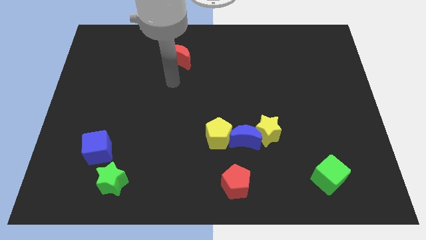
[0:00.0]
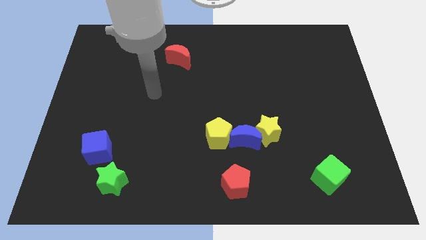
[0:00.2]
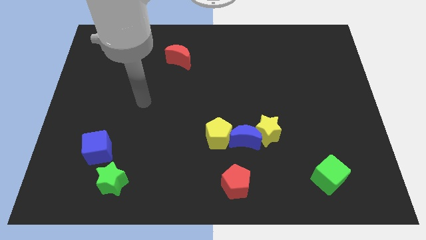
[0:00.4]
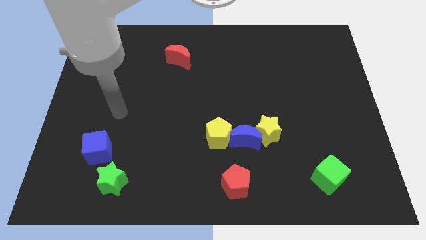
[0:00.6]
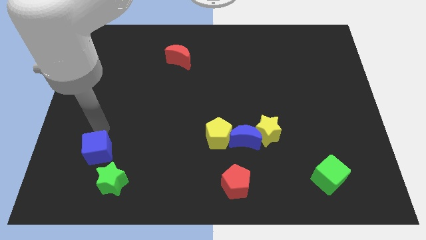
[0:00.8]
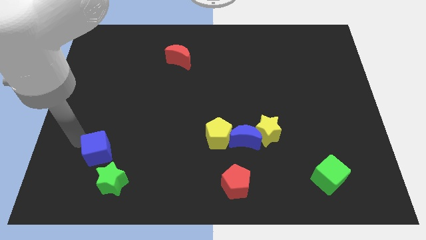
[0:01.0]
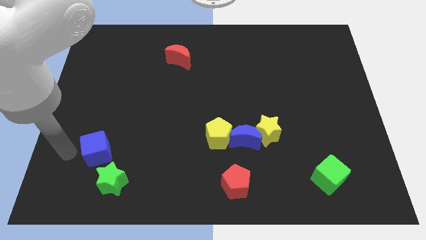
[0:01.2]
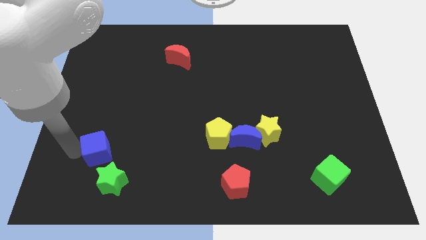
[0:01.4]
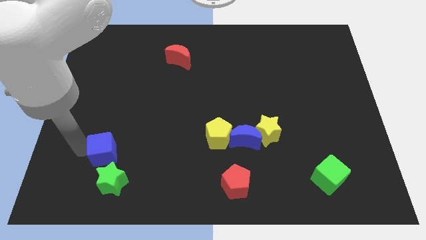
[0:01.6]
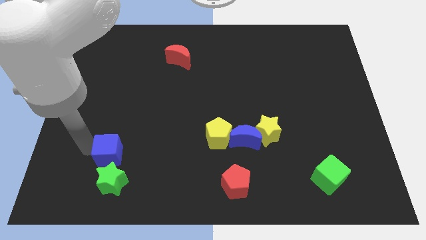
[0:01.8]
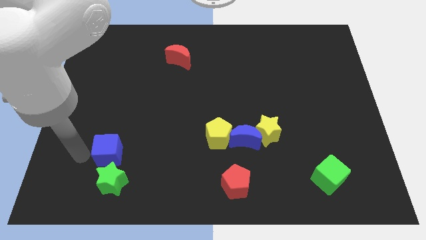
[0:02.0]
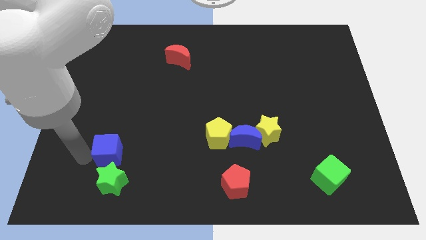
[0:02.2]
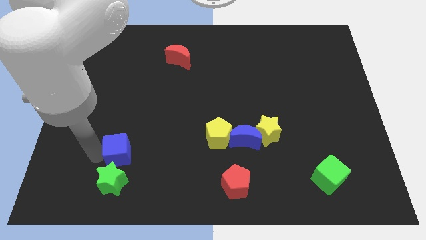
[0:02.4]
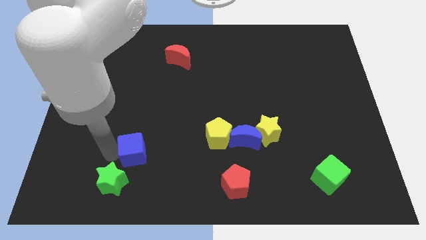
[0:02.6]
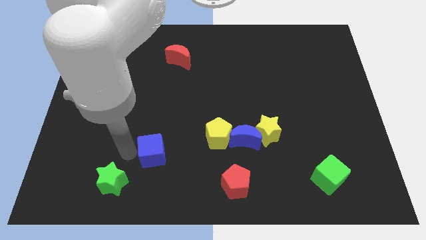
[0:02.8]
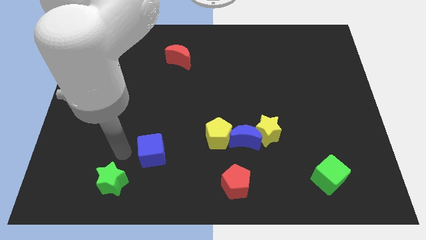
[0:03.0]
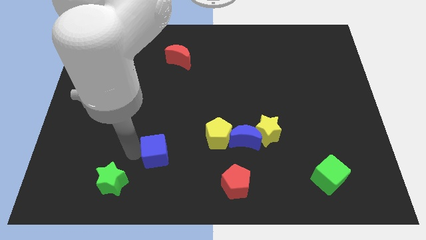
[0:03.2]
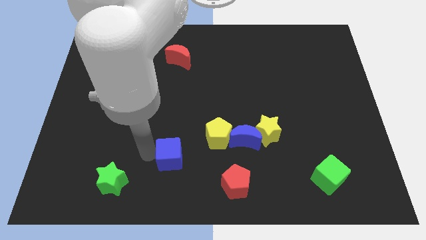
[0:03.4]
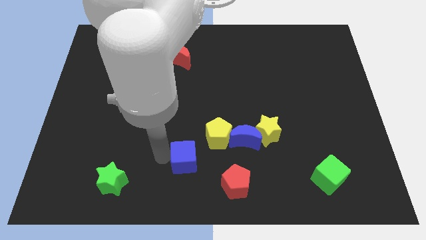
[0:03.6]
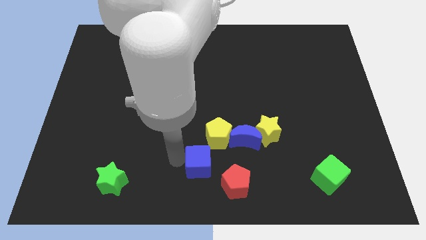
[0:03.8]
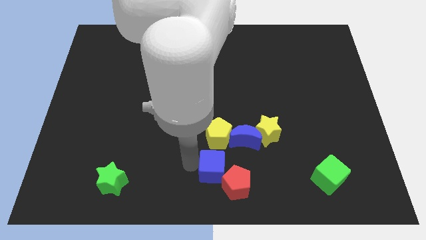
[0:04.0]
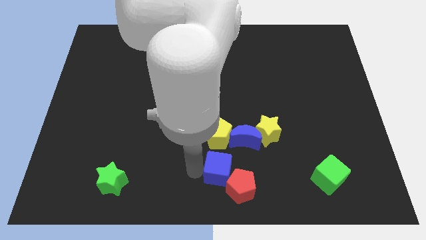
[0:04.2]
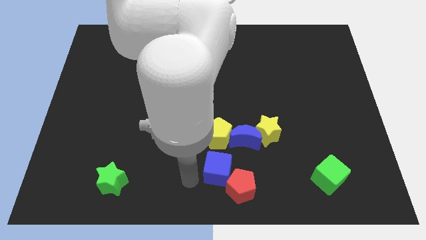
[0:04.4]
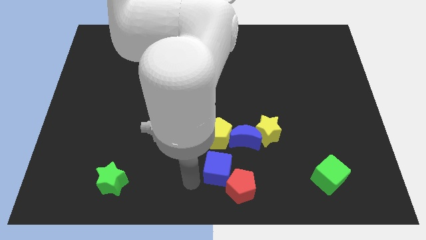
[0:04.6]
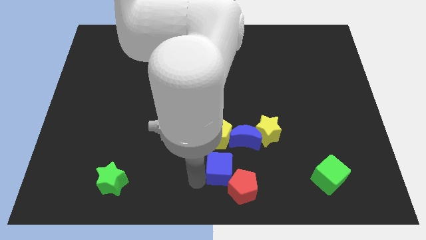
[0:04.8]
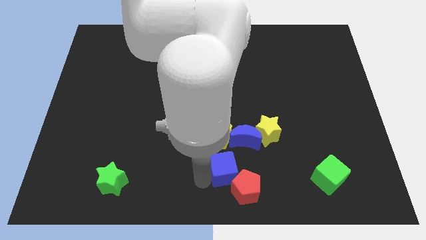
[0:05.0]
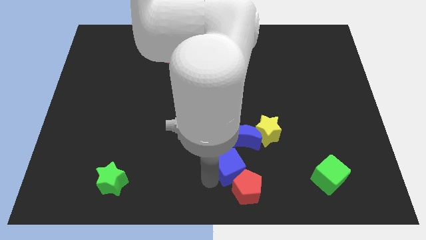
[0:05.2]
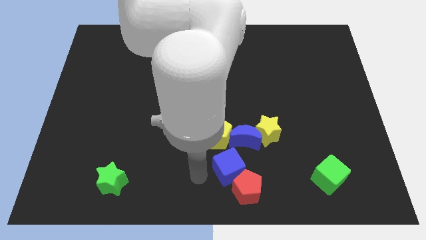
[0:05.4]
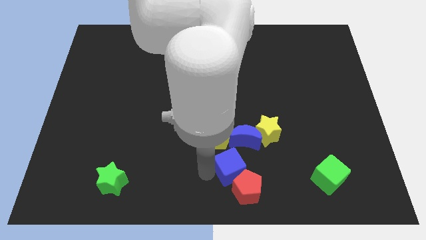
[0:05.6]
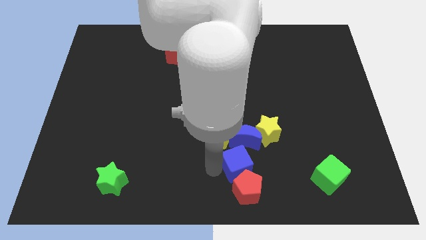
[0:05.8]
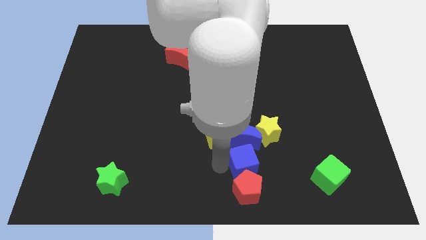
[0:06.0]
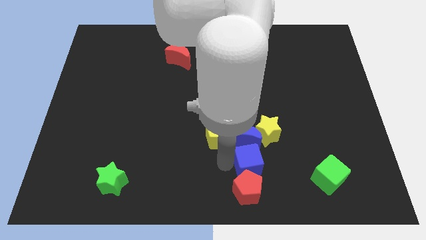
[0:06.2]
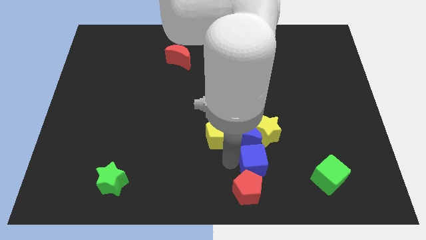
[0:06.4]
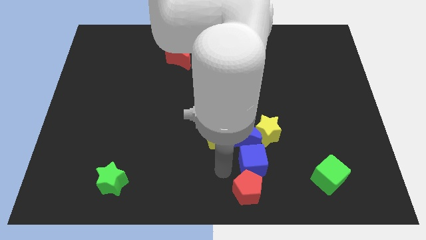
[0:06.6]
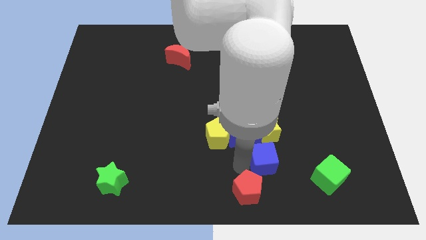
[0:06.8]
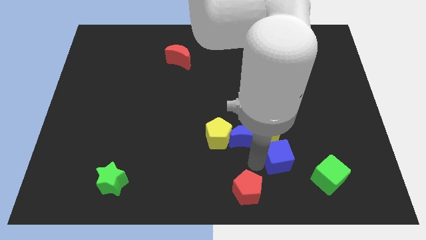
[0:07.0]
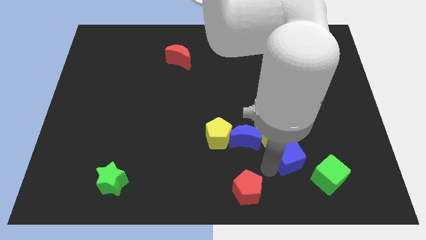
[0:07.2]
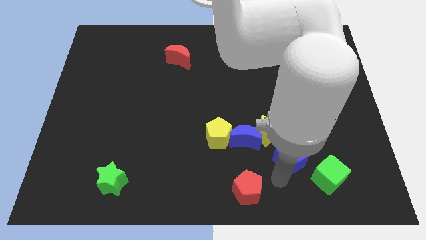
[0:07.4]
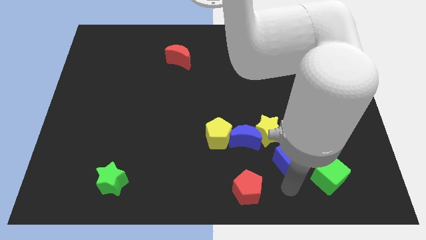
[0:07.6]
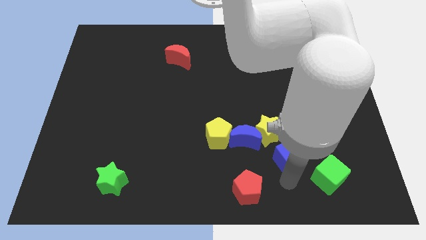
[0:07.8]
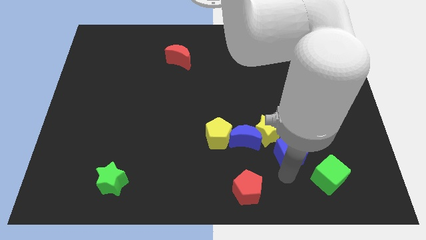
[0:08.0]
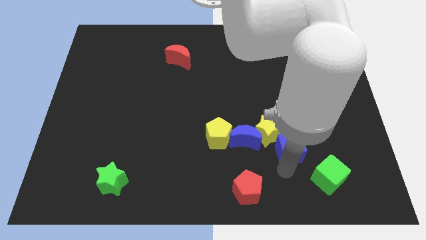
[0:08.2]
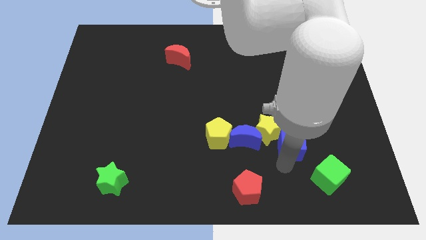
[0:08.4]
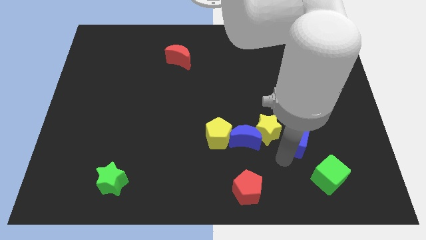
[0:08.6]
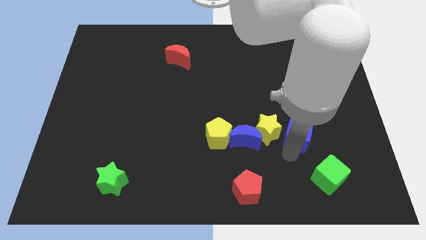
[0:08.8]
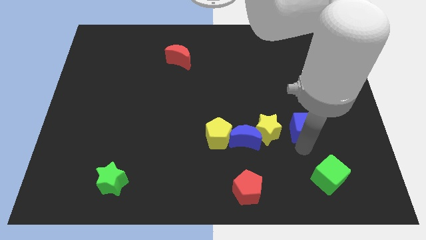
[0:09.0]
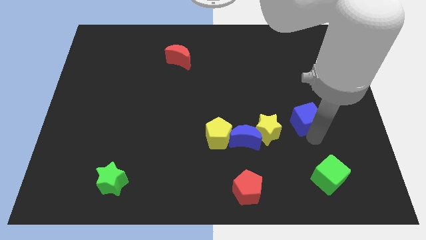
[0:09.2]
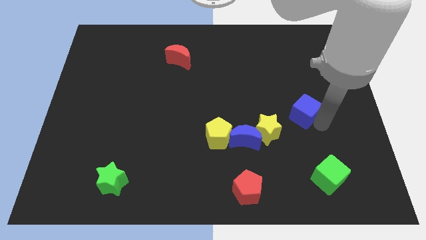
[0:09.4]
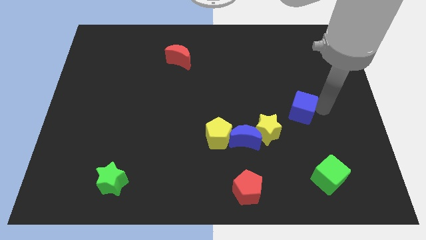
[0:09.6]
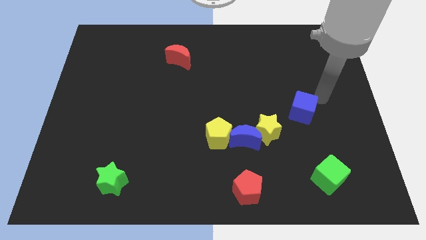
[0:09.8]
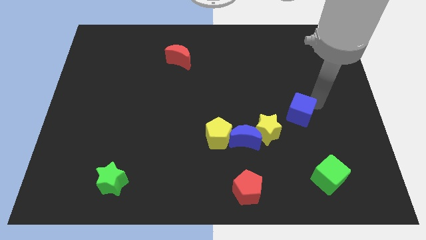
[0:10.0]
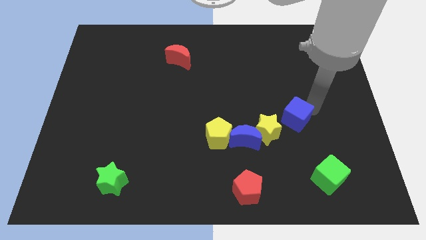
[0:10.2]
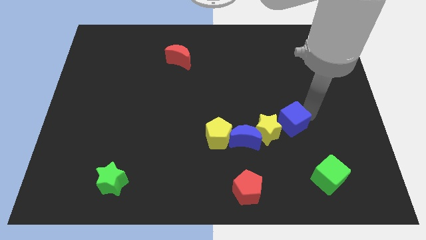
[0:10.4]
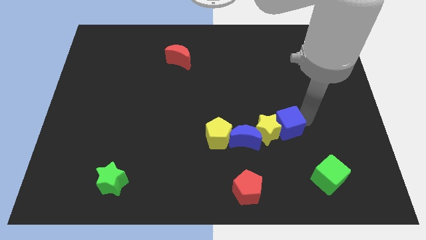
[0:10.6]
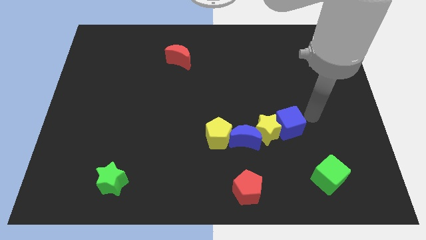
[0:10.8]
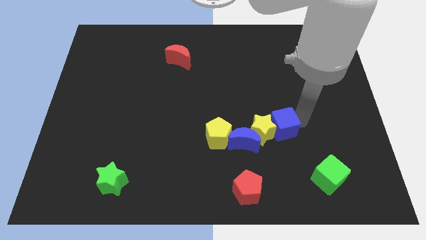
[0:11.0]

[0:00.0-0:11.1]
slide the blue cube to the right side of the yellow pentagon

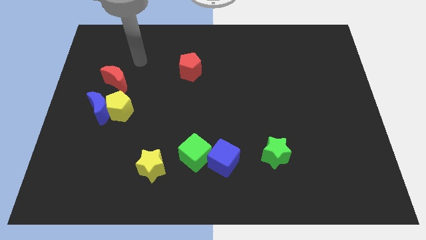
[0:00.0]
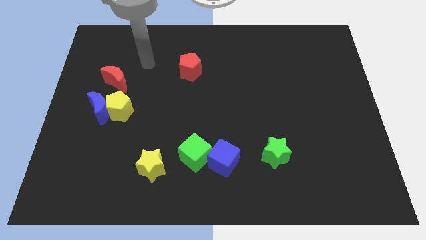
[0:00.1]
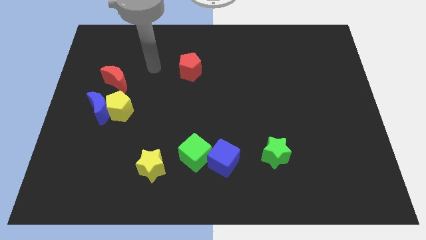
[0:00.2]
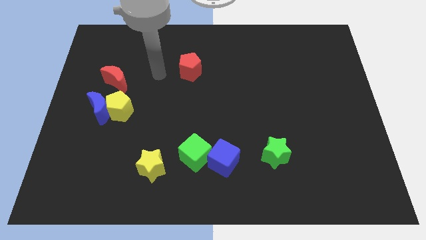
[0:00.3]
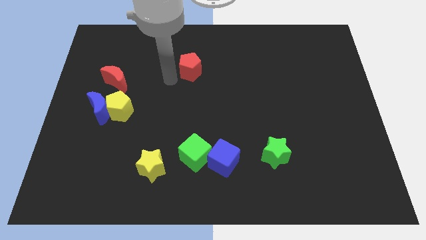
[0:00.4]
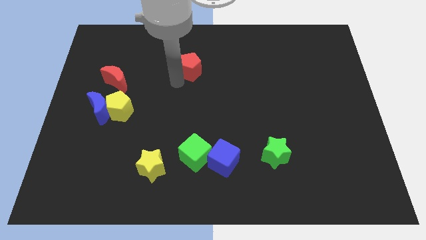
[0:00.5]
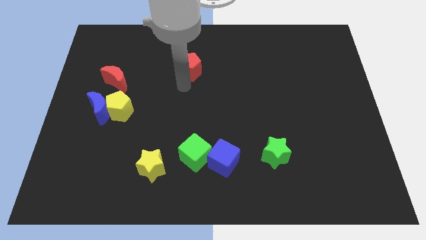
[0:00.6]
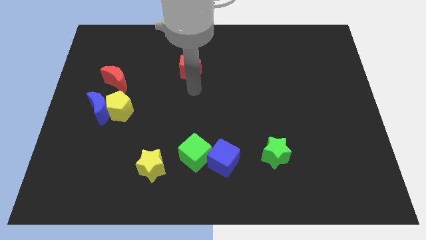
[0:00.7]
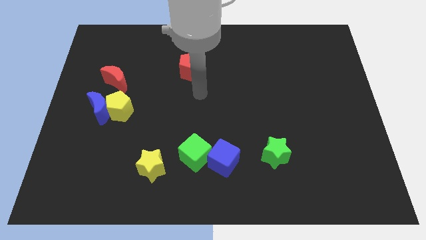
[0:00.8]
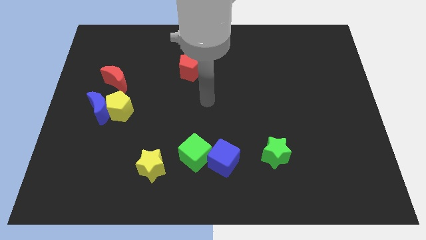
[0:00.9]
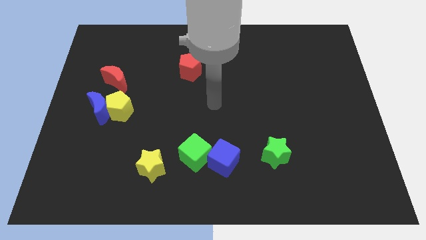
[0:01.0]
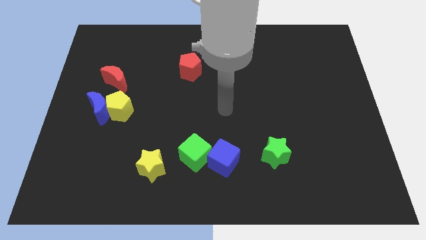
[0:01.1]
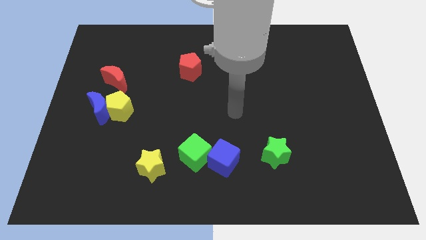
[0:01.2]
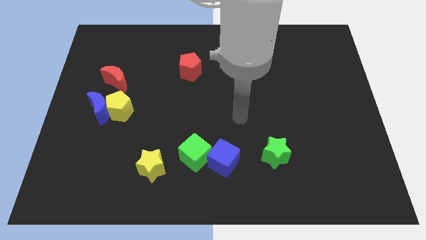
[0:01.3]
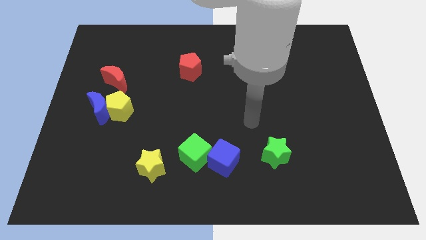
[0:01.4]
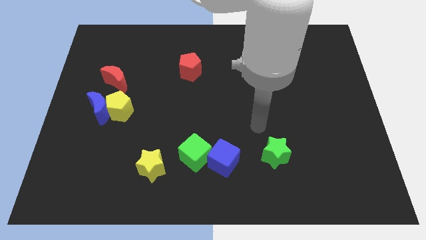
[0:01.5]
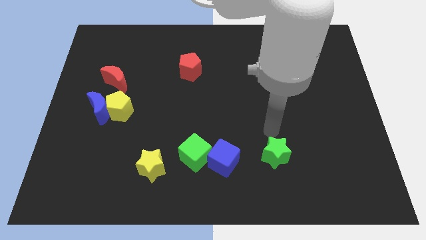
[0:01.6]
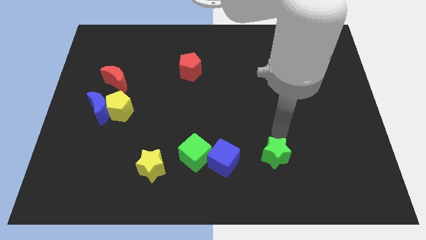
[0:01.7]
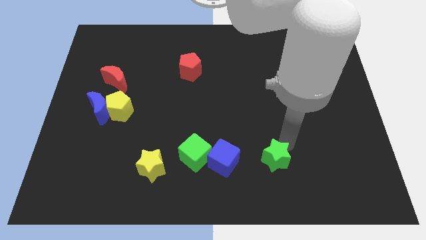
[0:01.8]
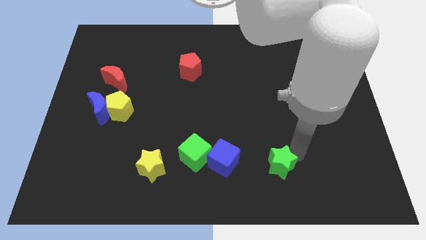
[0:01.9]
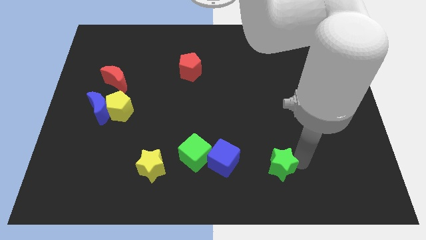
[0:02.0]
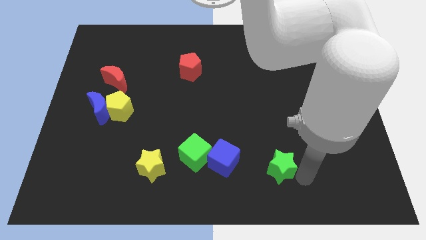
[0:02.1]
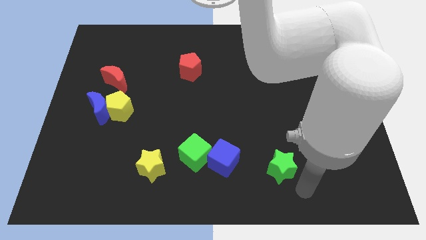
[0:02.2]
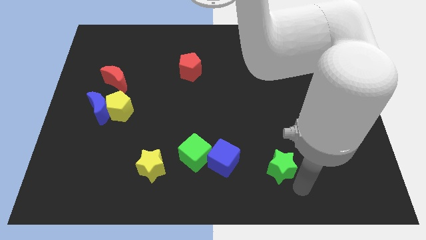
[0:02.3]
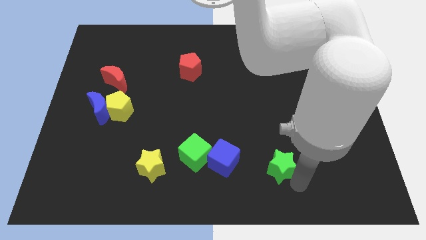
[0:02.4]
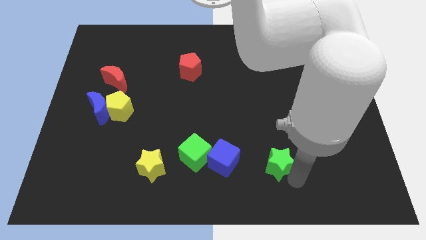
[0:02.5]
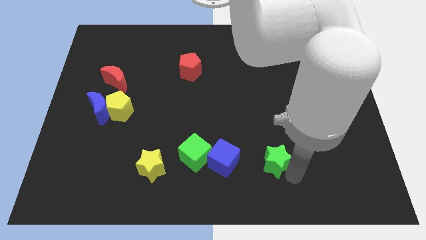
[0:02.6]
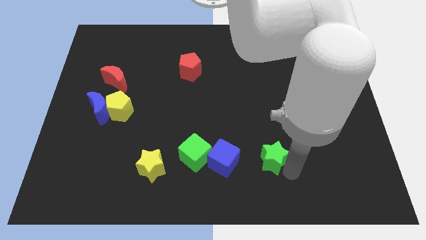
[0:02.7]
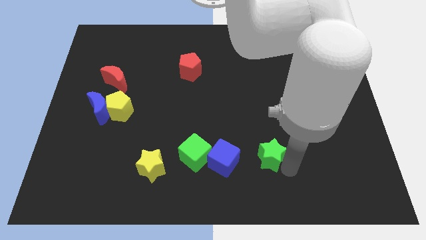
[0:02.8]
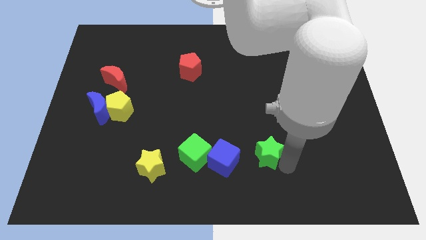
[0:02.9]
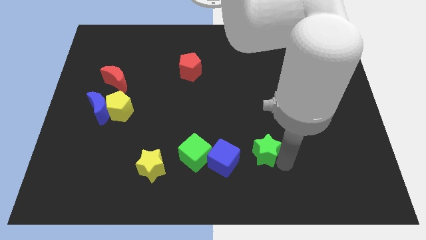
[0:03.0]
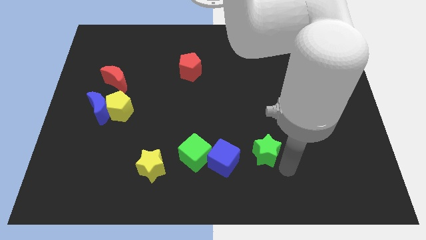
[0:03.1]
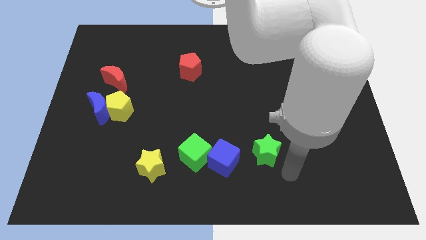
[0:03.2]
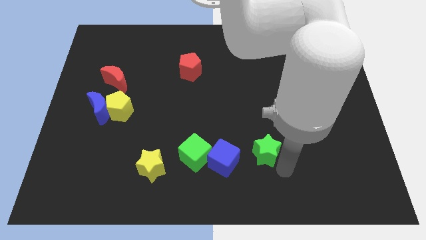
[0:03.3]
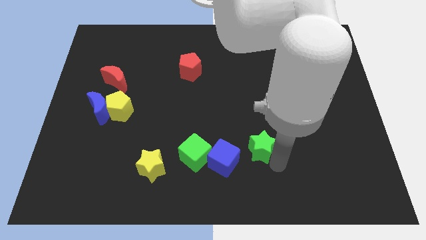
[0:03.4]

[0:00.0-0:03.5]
slide the green star diagonally up and to the right of the blue cube
